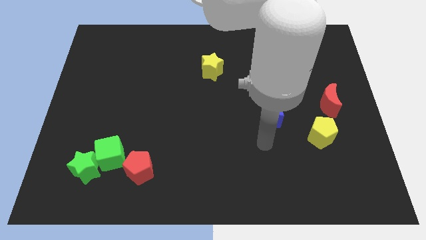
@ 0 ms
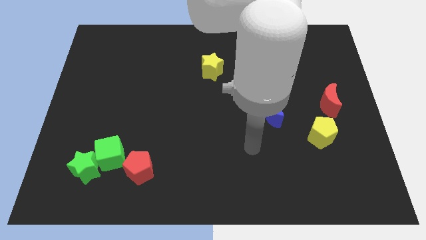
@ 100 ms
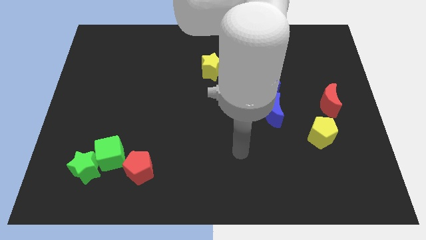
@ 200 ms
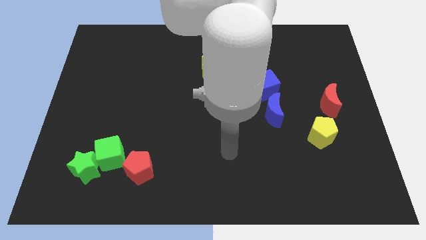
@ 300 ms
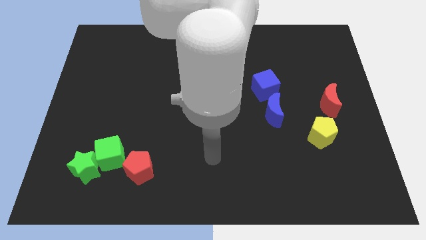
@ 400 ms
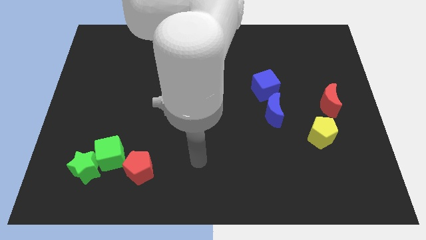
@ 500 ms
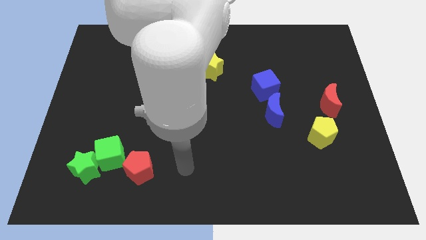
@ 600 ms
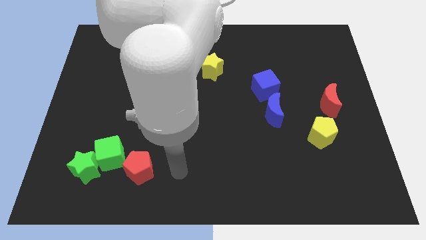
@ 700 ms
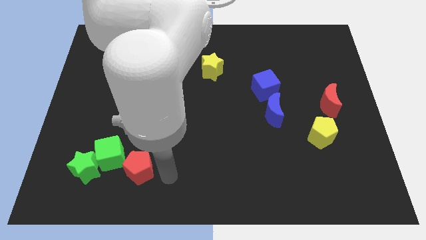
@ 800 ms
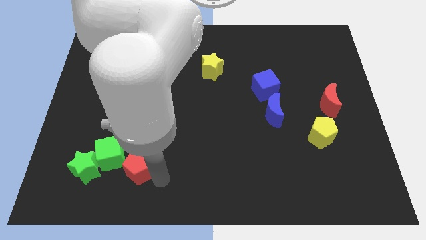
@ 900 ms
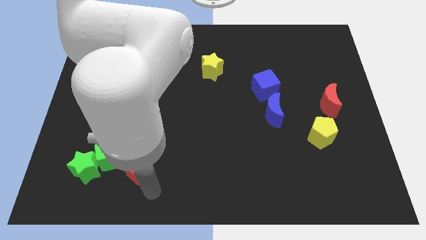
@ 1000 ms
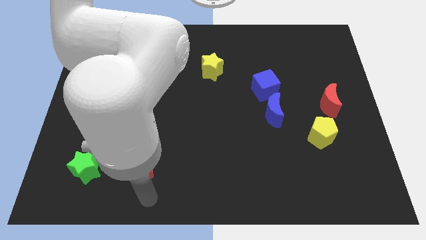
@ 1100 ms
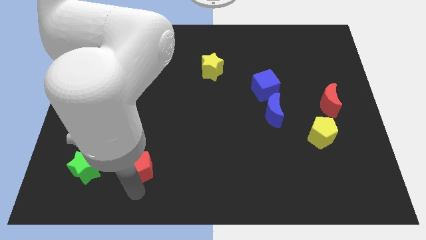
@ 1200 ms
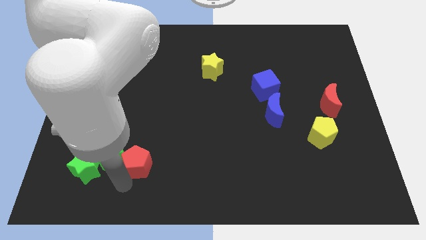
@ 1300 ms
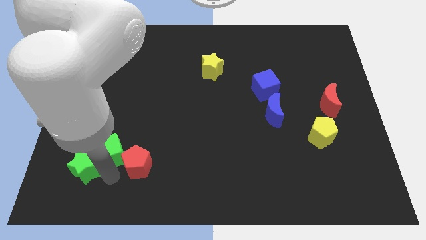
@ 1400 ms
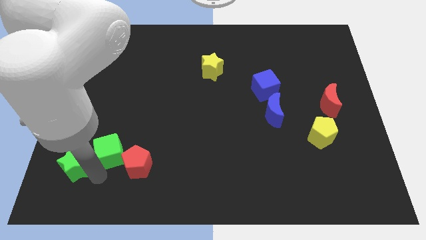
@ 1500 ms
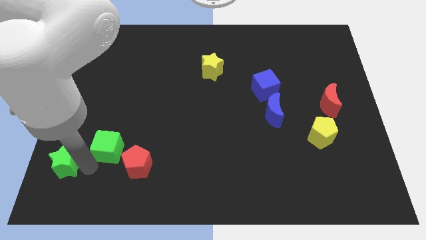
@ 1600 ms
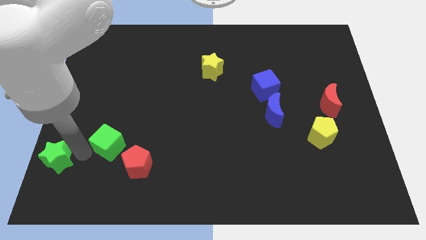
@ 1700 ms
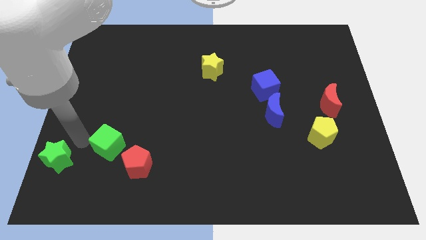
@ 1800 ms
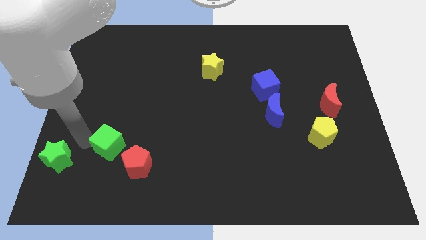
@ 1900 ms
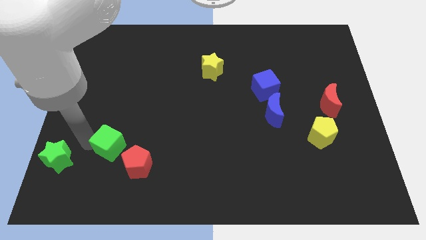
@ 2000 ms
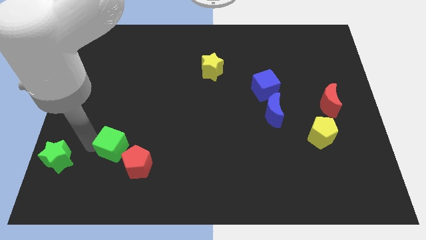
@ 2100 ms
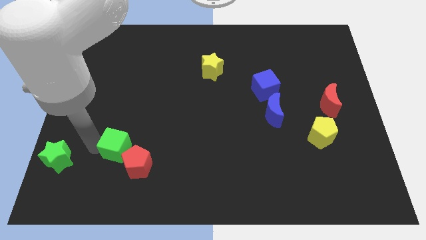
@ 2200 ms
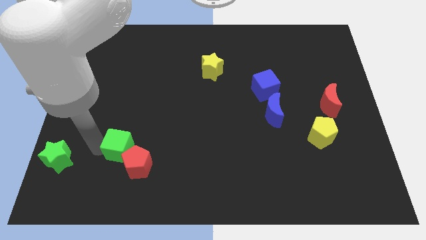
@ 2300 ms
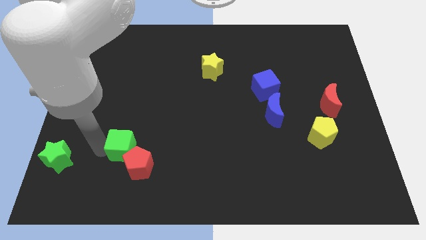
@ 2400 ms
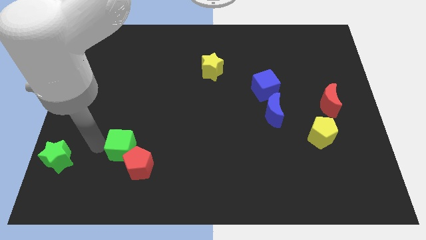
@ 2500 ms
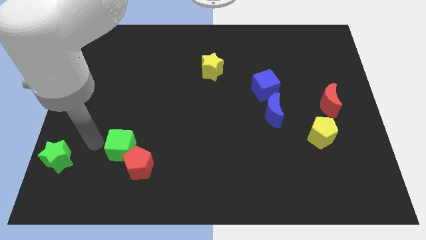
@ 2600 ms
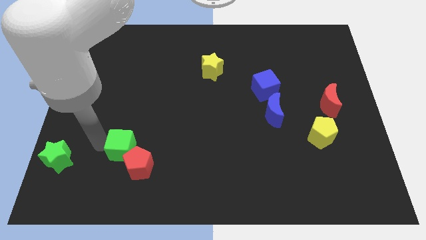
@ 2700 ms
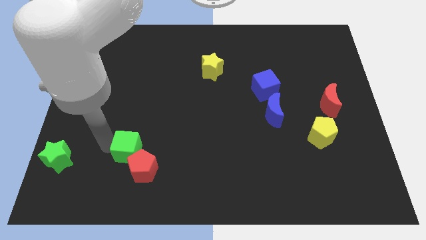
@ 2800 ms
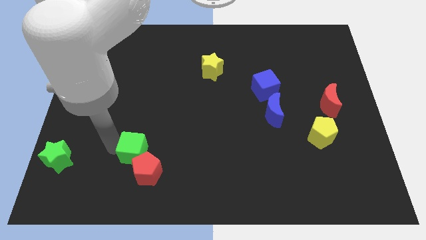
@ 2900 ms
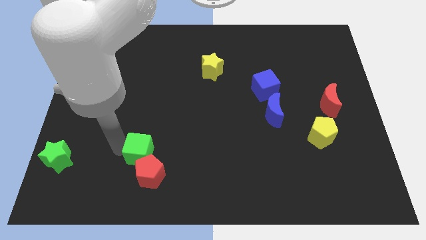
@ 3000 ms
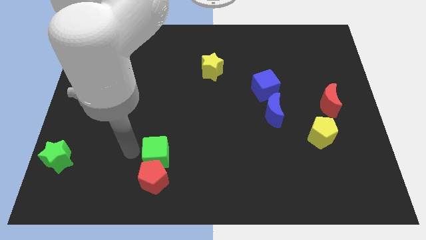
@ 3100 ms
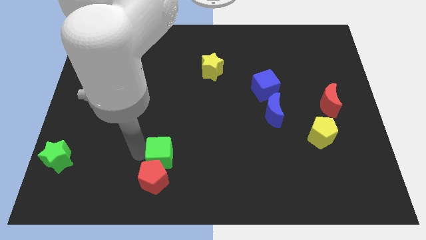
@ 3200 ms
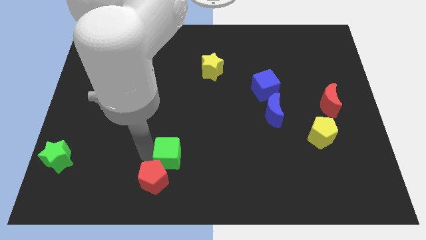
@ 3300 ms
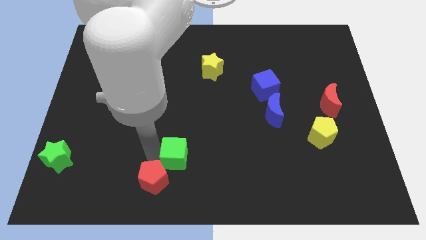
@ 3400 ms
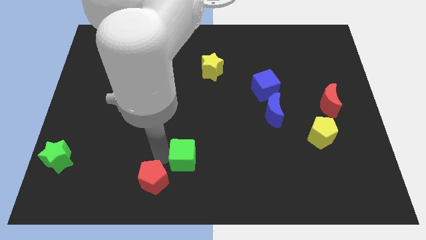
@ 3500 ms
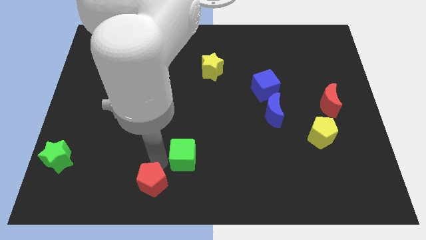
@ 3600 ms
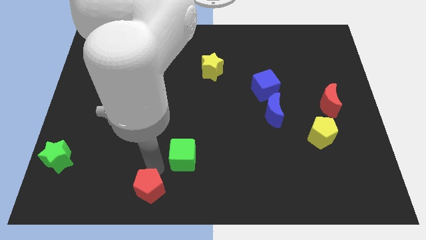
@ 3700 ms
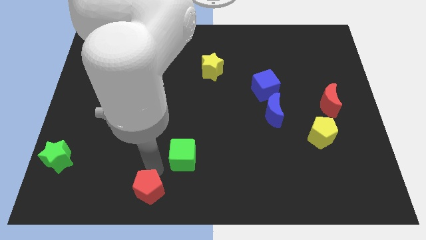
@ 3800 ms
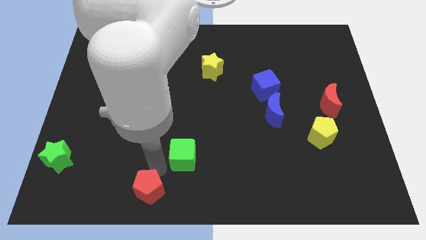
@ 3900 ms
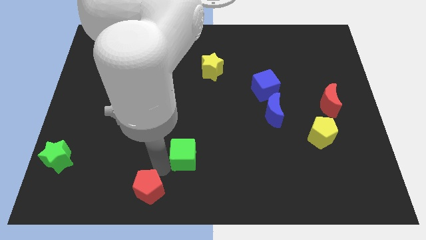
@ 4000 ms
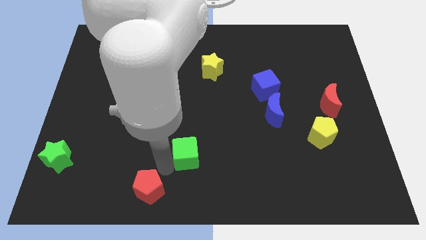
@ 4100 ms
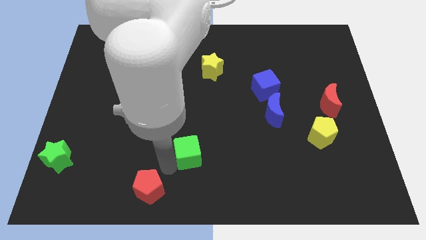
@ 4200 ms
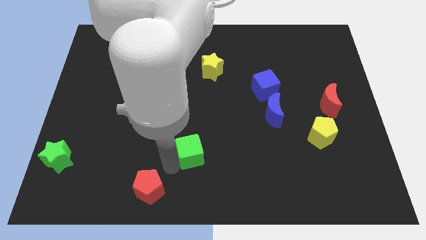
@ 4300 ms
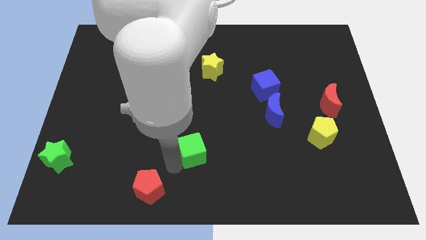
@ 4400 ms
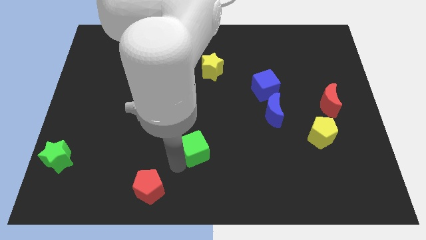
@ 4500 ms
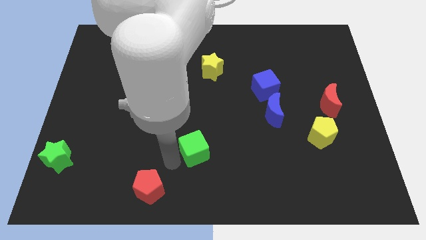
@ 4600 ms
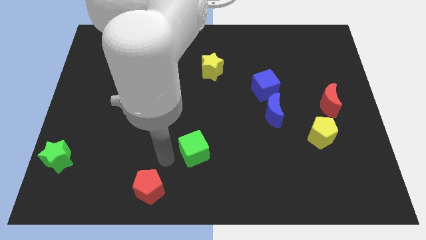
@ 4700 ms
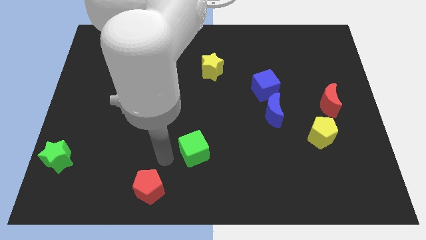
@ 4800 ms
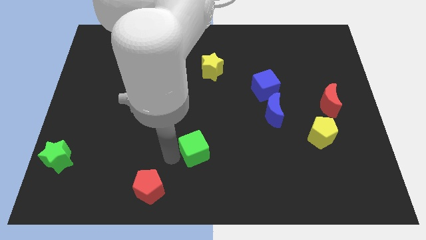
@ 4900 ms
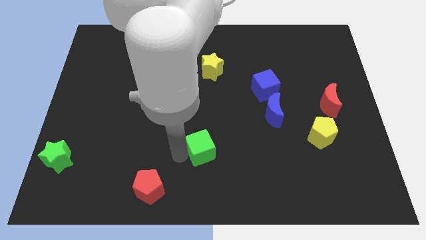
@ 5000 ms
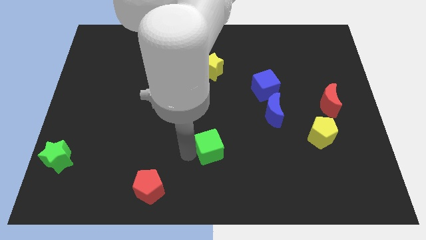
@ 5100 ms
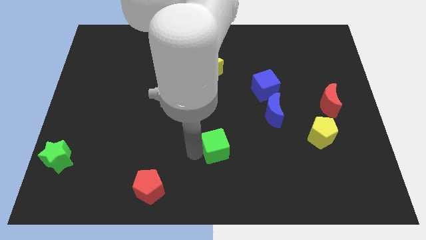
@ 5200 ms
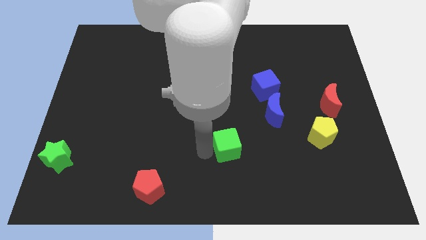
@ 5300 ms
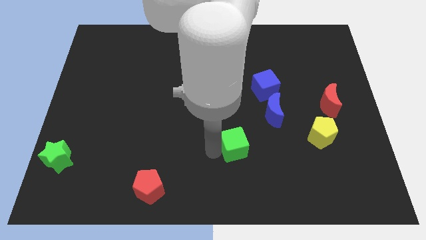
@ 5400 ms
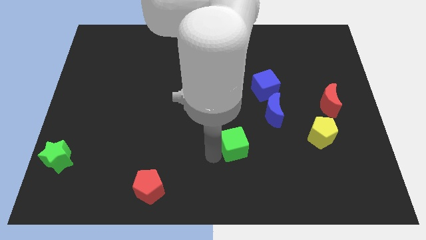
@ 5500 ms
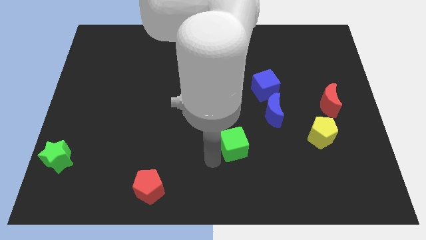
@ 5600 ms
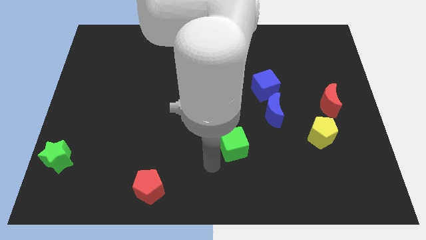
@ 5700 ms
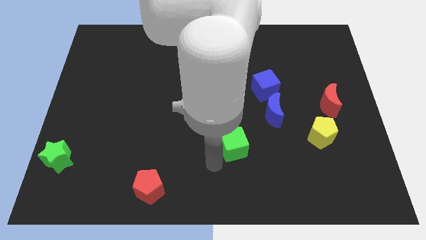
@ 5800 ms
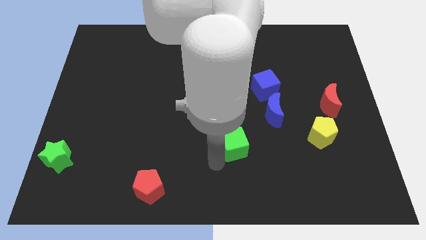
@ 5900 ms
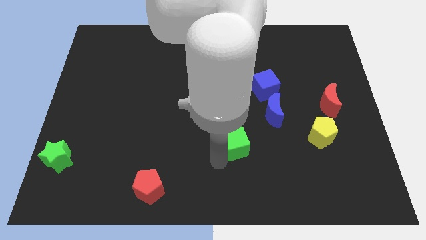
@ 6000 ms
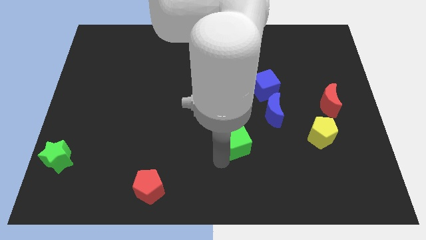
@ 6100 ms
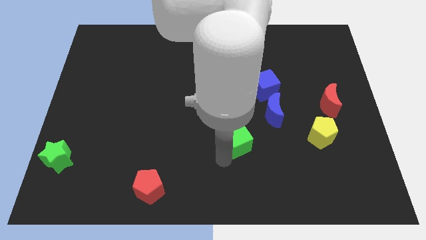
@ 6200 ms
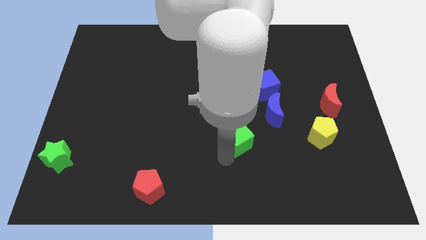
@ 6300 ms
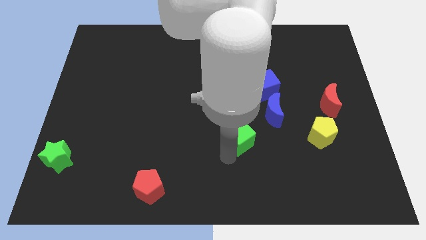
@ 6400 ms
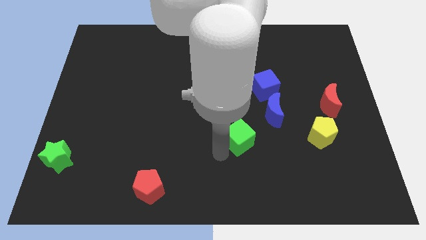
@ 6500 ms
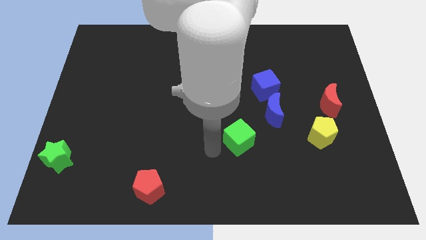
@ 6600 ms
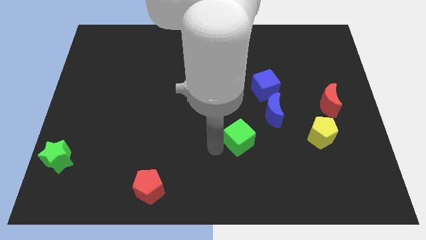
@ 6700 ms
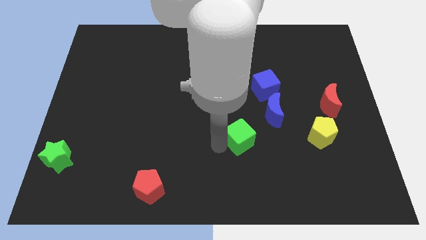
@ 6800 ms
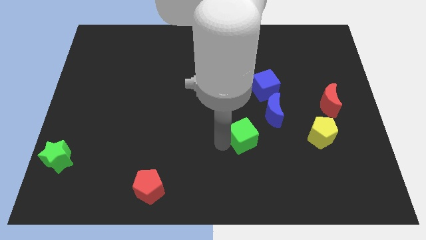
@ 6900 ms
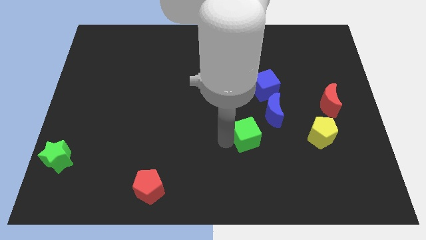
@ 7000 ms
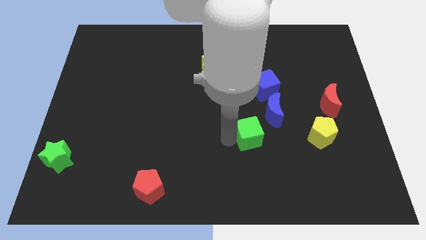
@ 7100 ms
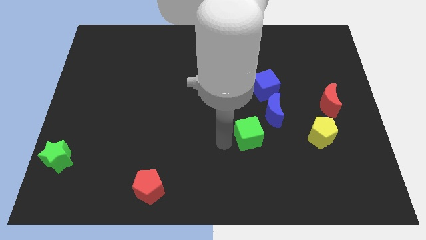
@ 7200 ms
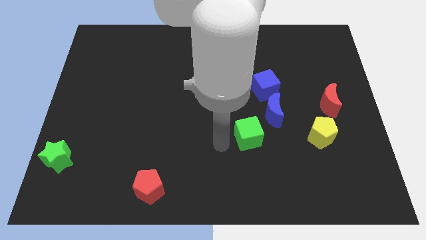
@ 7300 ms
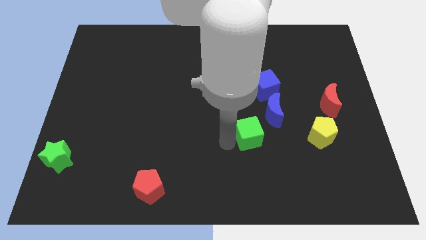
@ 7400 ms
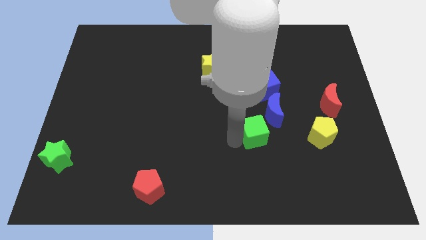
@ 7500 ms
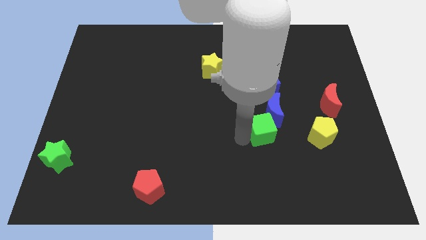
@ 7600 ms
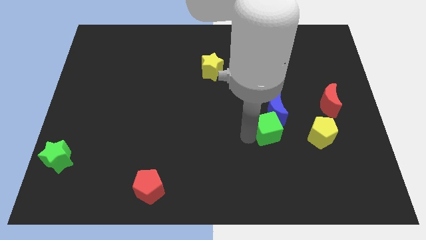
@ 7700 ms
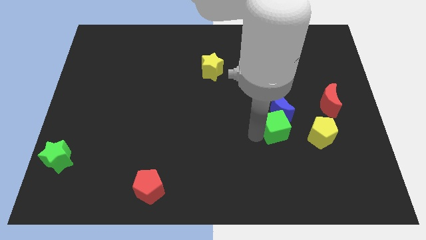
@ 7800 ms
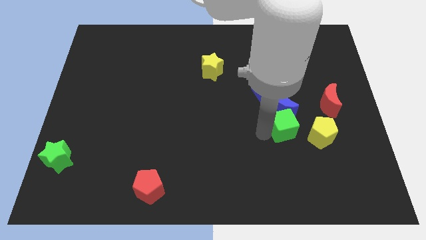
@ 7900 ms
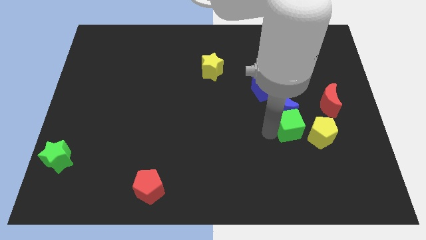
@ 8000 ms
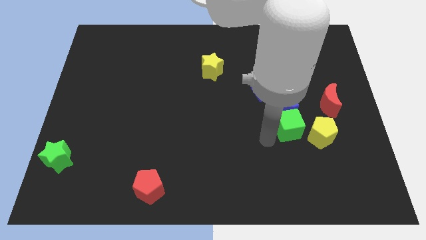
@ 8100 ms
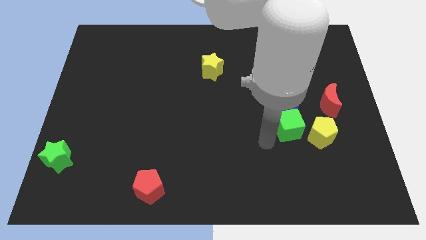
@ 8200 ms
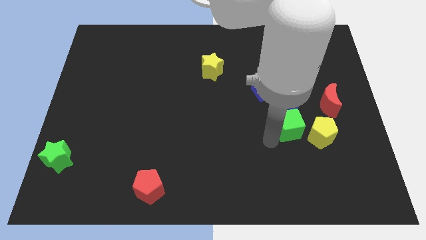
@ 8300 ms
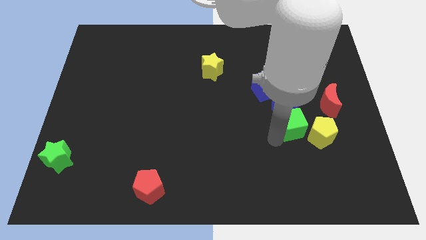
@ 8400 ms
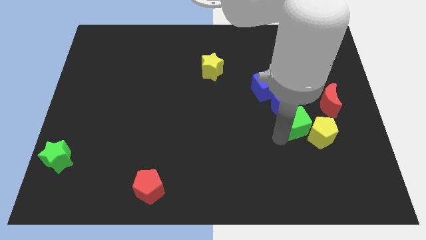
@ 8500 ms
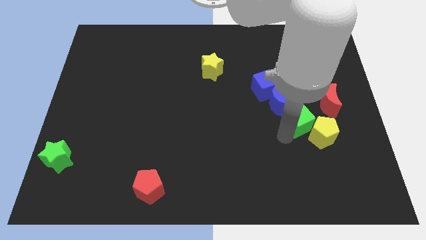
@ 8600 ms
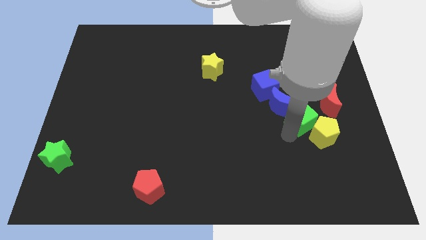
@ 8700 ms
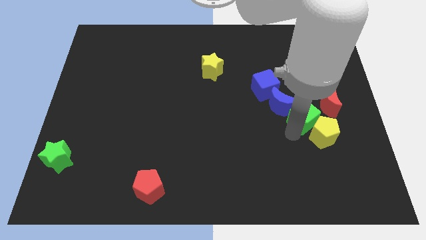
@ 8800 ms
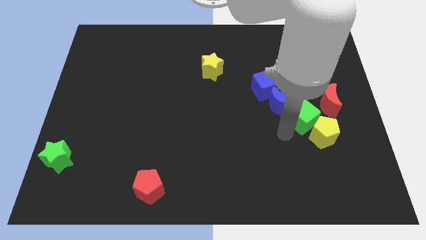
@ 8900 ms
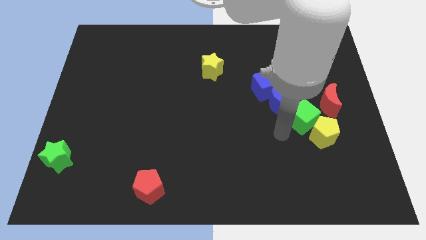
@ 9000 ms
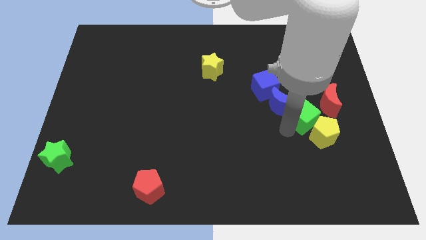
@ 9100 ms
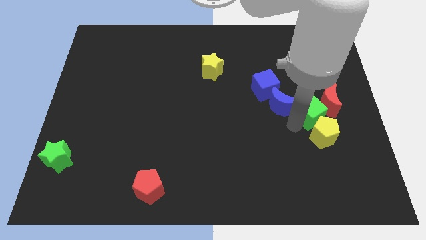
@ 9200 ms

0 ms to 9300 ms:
put the green cube towards the red moon
